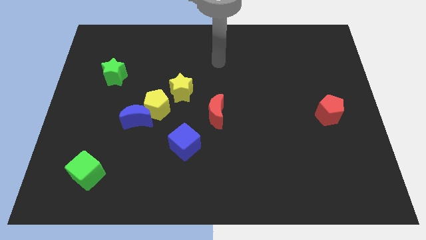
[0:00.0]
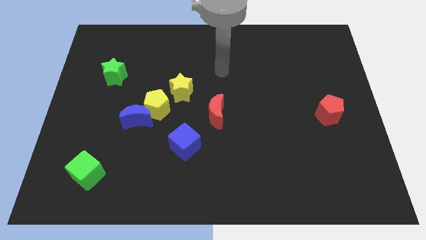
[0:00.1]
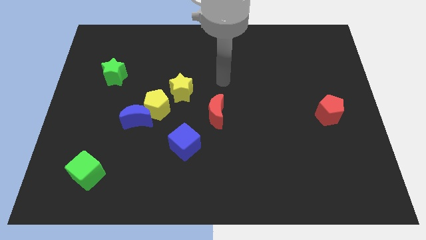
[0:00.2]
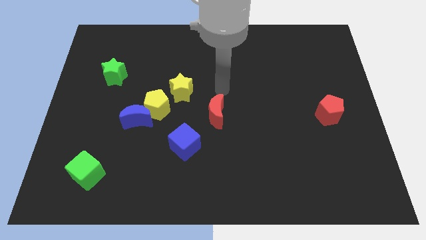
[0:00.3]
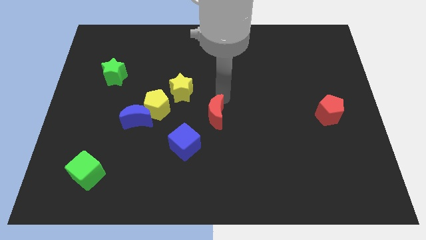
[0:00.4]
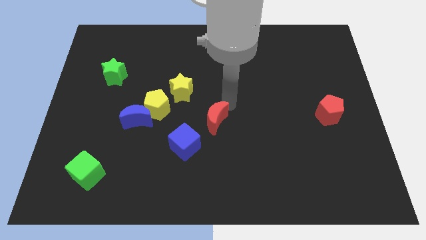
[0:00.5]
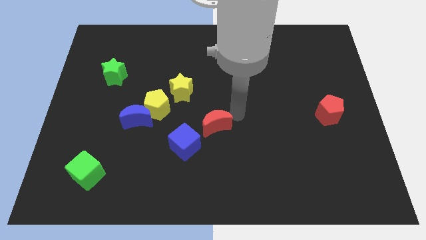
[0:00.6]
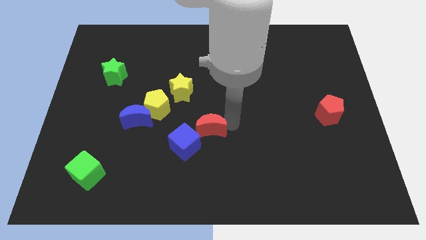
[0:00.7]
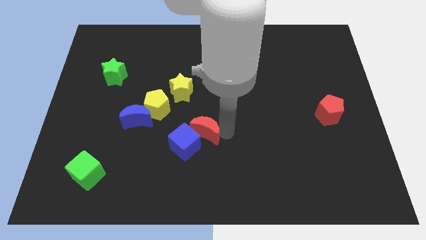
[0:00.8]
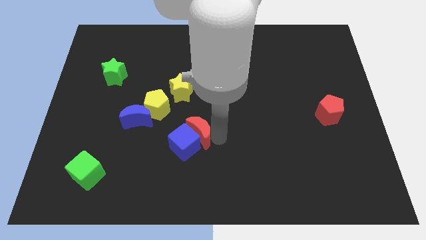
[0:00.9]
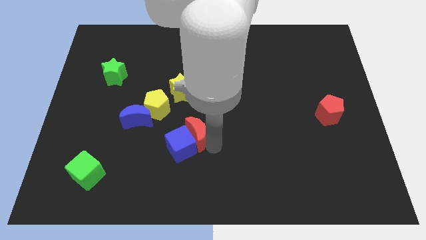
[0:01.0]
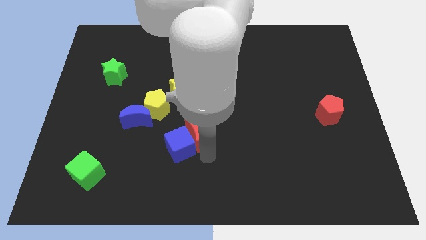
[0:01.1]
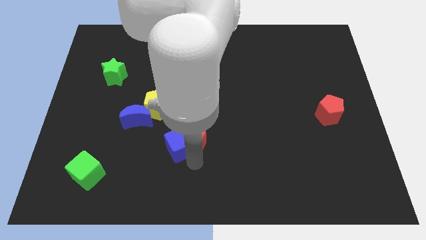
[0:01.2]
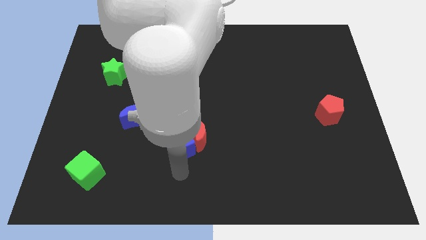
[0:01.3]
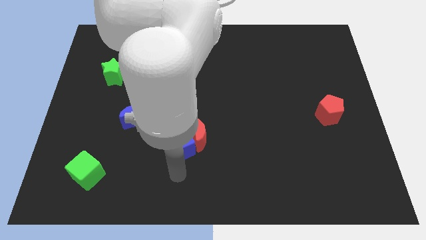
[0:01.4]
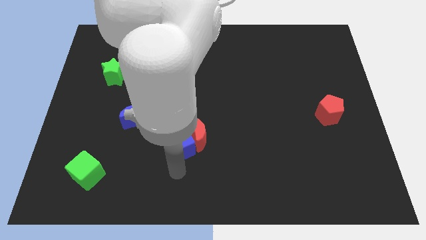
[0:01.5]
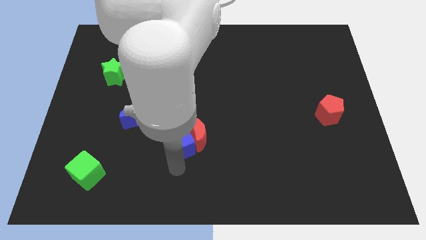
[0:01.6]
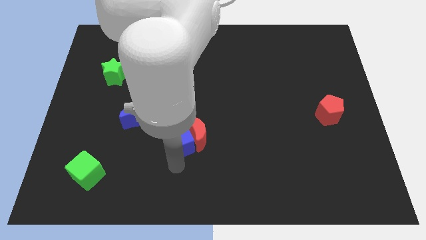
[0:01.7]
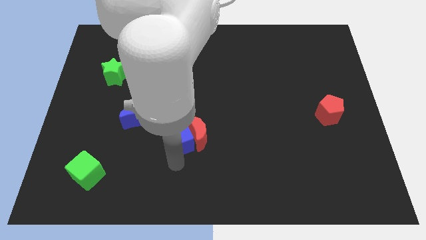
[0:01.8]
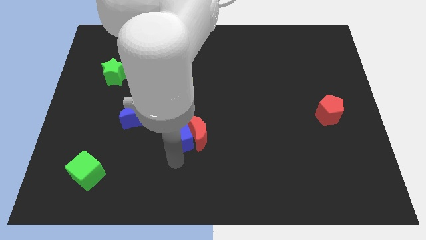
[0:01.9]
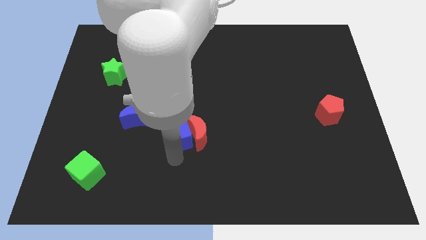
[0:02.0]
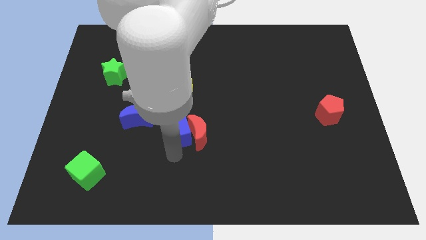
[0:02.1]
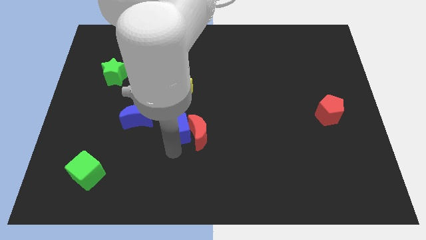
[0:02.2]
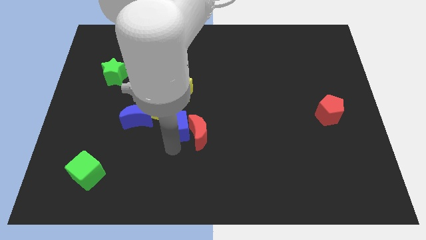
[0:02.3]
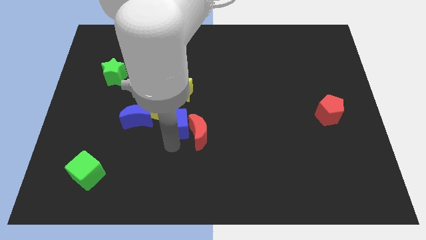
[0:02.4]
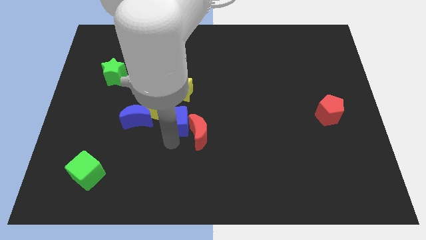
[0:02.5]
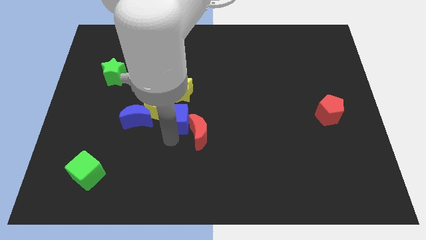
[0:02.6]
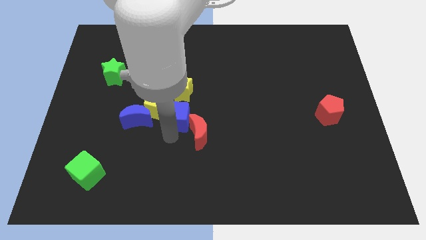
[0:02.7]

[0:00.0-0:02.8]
slightly slide the blue cube up

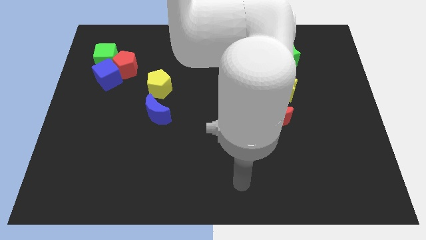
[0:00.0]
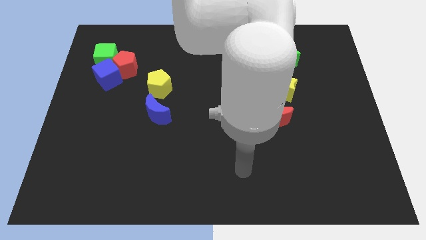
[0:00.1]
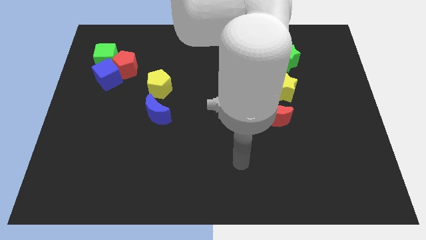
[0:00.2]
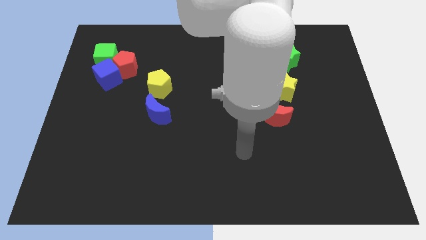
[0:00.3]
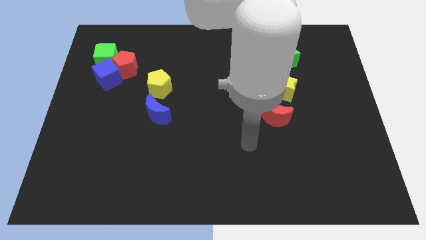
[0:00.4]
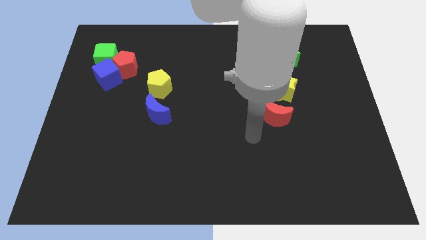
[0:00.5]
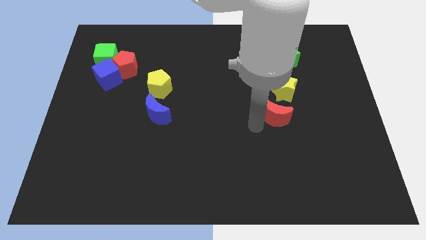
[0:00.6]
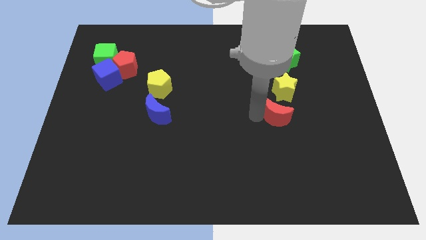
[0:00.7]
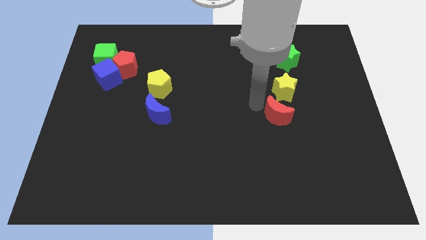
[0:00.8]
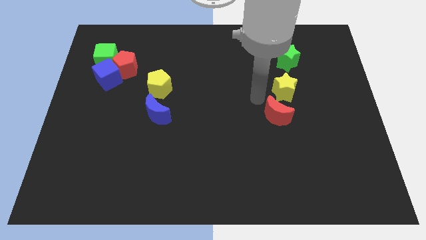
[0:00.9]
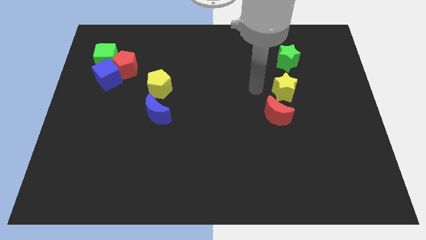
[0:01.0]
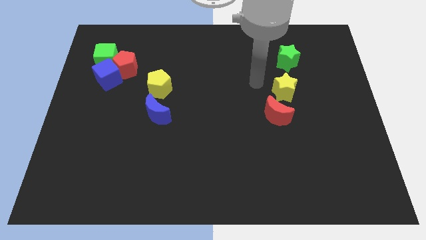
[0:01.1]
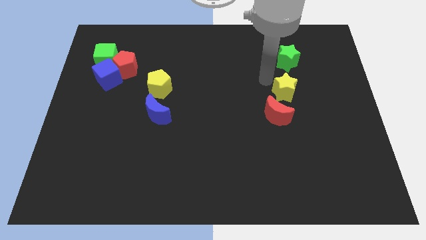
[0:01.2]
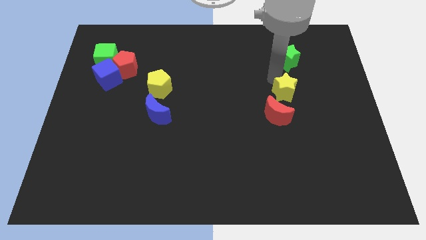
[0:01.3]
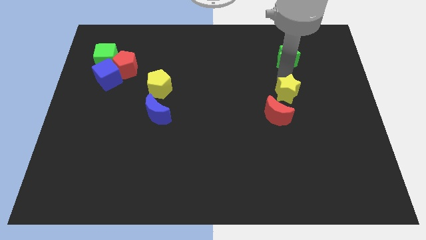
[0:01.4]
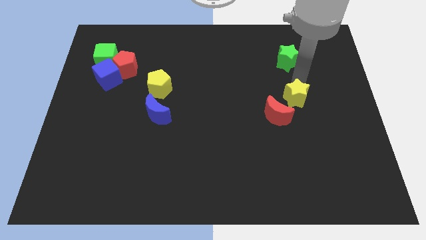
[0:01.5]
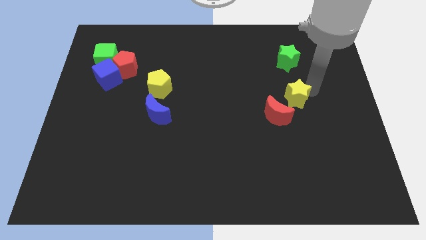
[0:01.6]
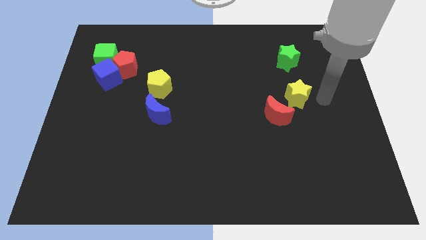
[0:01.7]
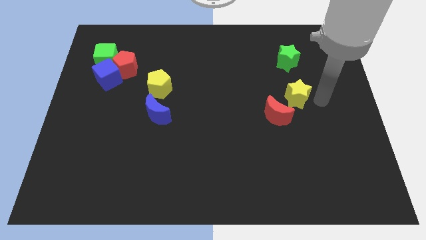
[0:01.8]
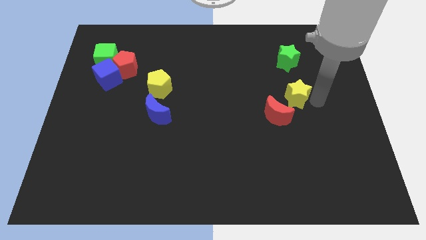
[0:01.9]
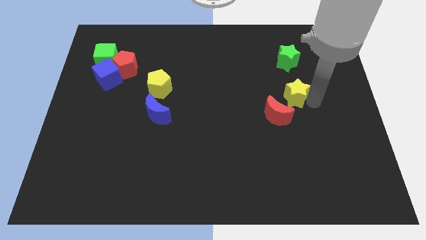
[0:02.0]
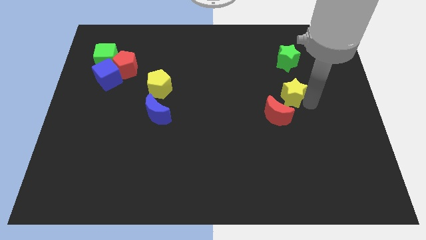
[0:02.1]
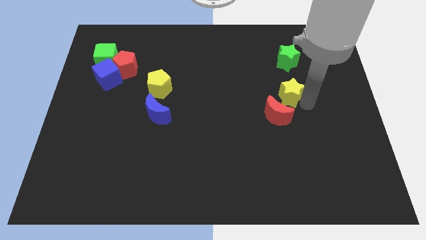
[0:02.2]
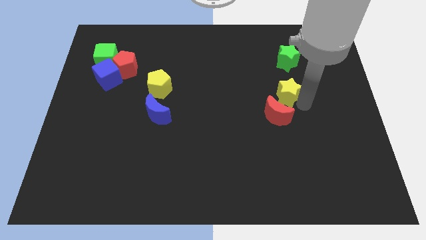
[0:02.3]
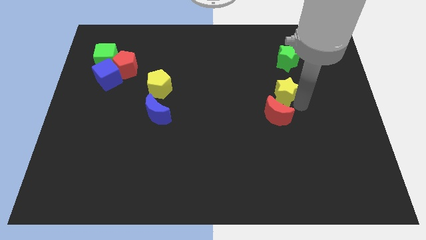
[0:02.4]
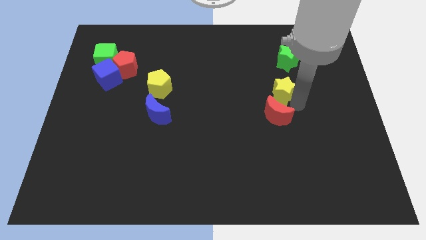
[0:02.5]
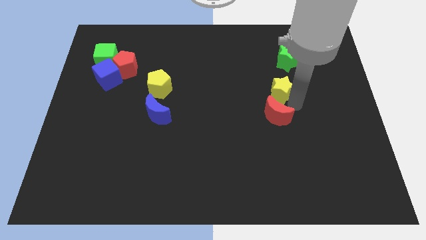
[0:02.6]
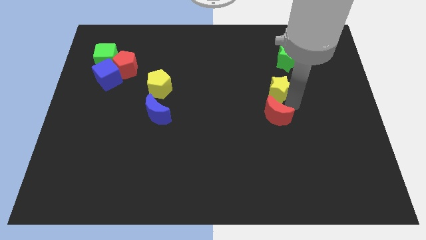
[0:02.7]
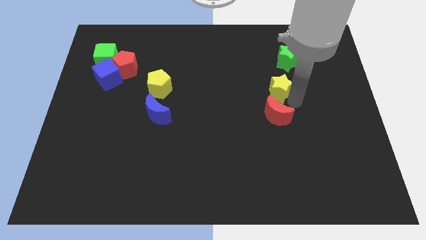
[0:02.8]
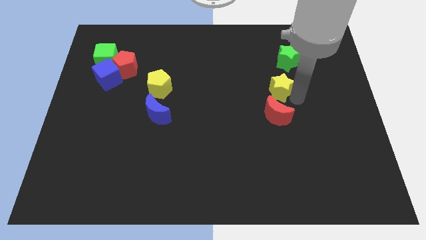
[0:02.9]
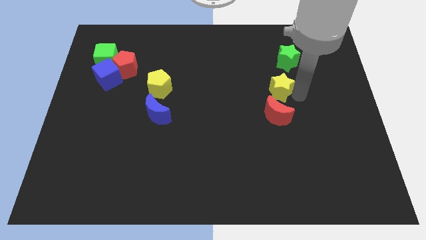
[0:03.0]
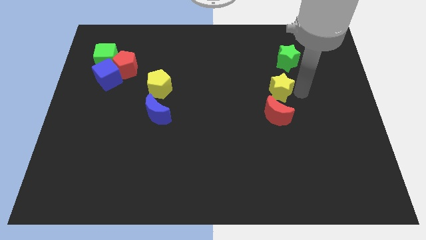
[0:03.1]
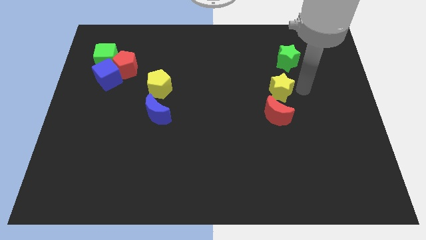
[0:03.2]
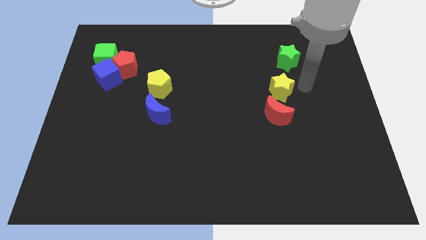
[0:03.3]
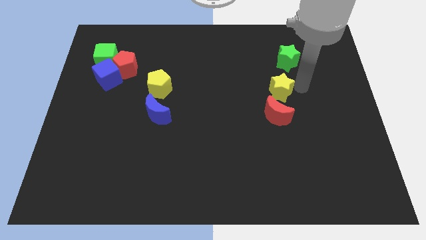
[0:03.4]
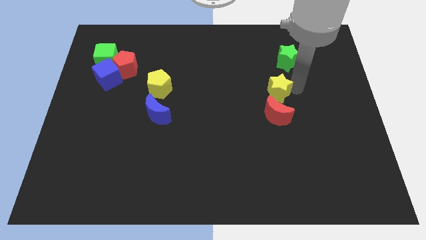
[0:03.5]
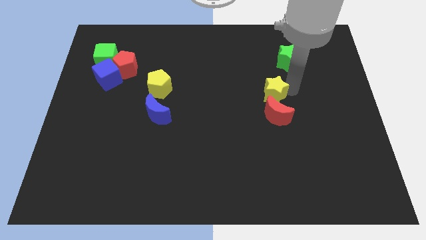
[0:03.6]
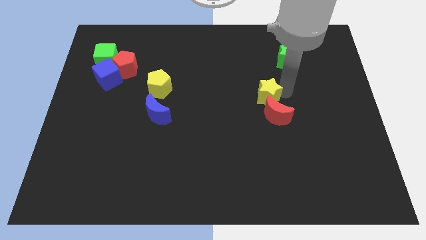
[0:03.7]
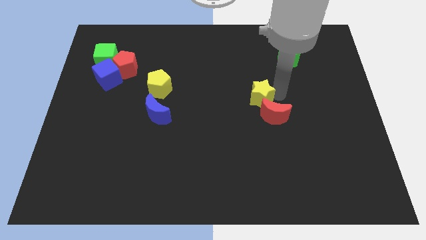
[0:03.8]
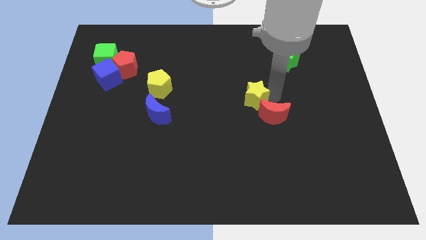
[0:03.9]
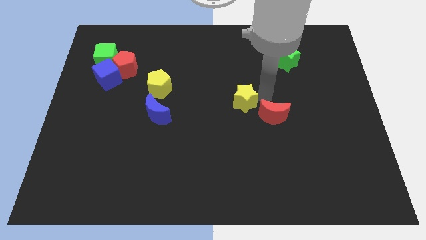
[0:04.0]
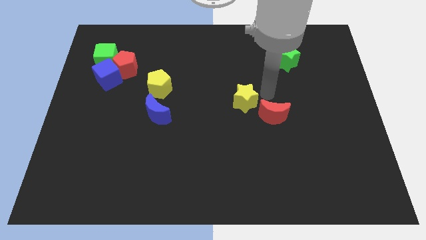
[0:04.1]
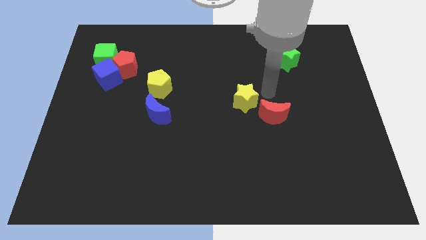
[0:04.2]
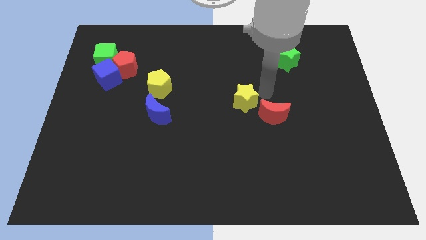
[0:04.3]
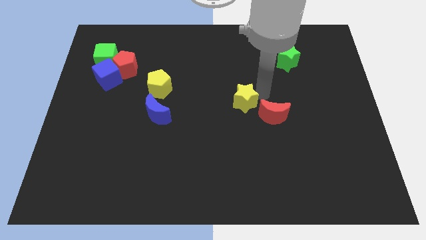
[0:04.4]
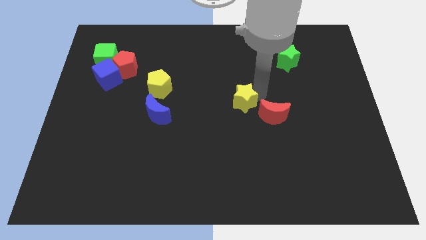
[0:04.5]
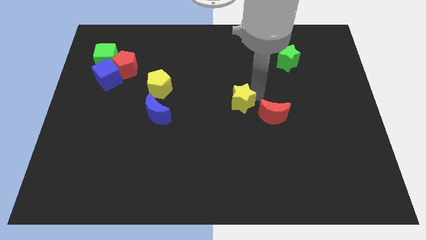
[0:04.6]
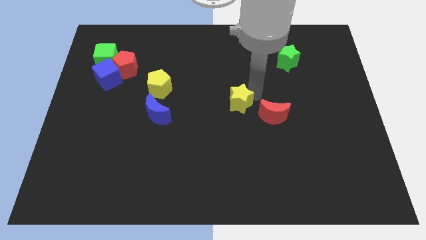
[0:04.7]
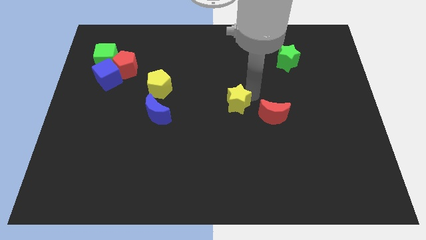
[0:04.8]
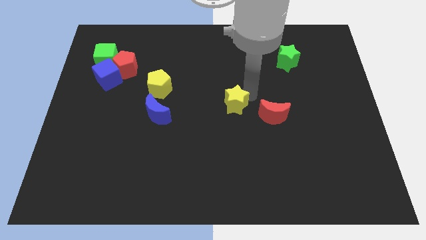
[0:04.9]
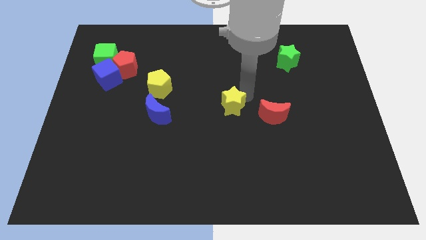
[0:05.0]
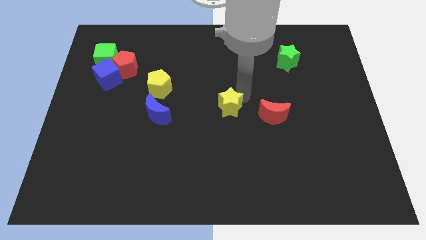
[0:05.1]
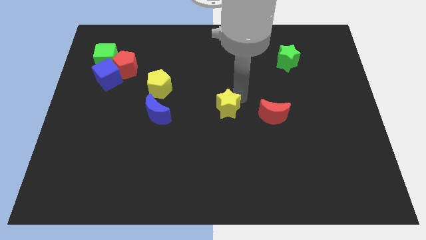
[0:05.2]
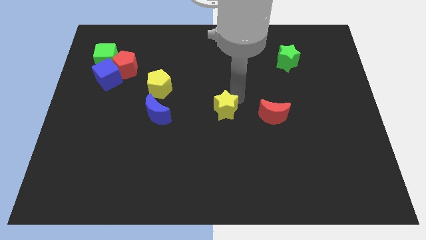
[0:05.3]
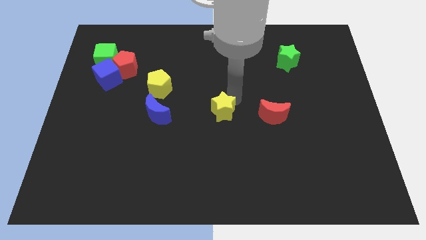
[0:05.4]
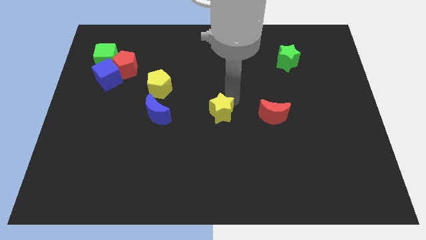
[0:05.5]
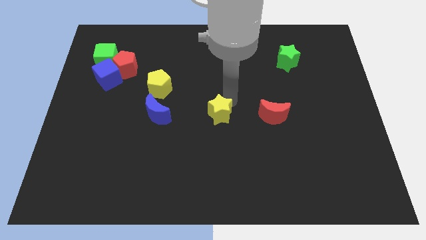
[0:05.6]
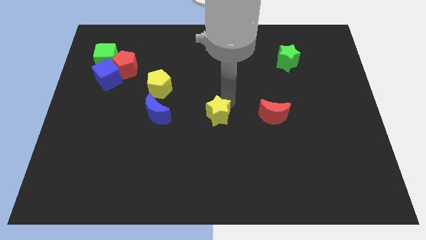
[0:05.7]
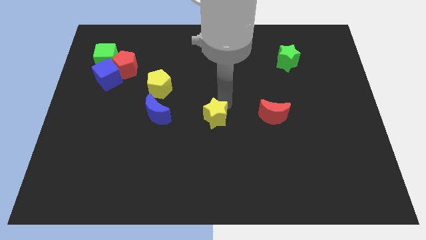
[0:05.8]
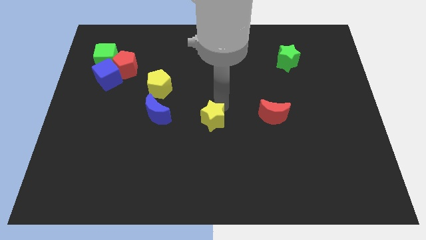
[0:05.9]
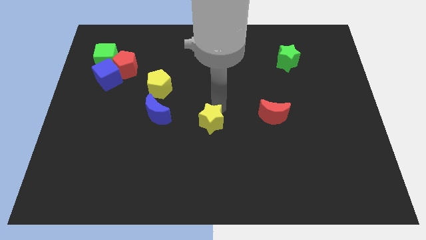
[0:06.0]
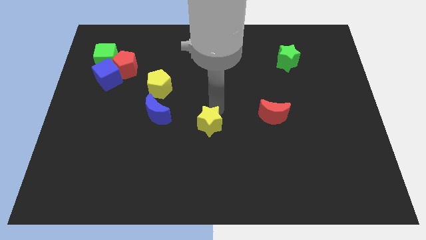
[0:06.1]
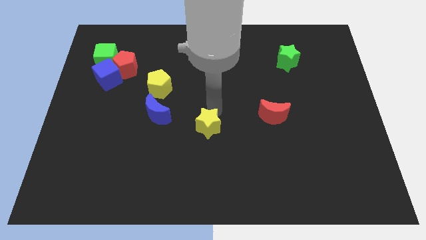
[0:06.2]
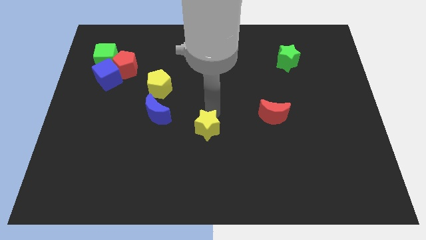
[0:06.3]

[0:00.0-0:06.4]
push the yellow star downwards and left diagonally
